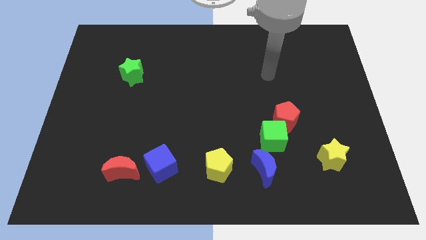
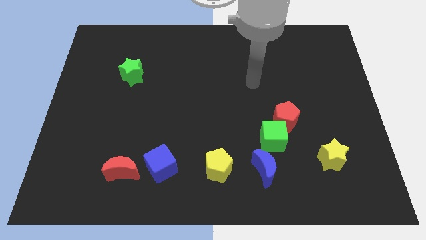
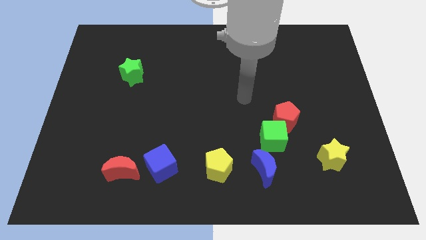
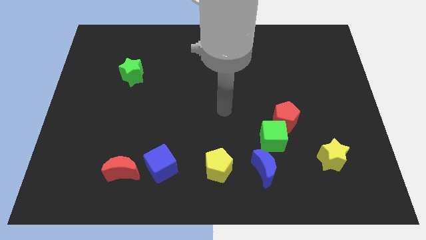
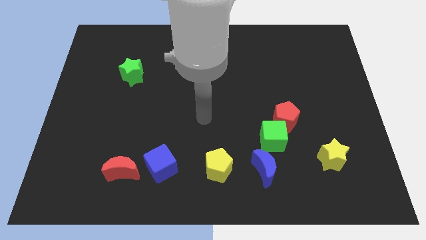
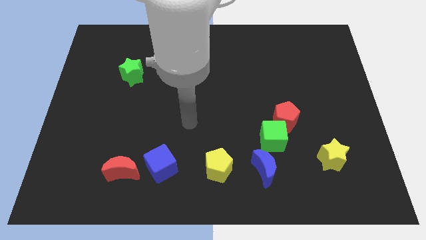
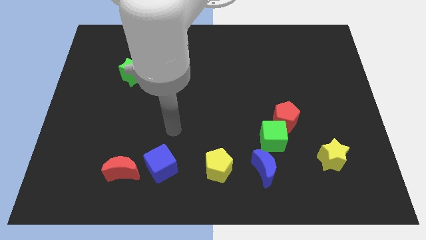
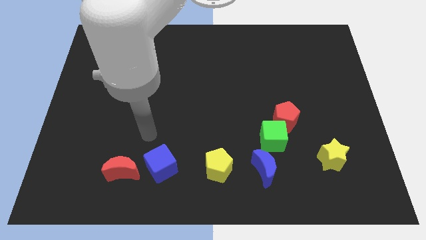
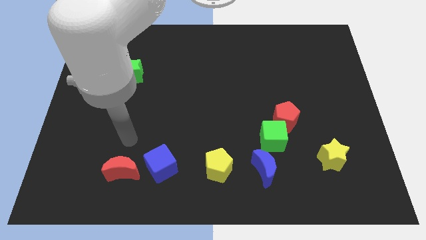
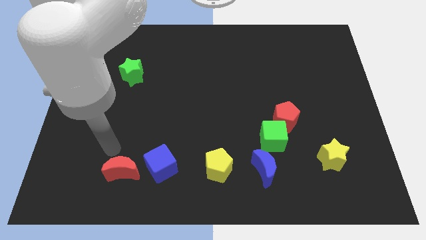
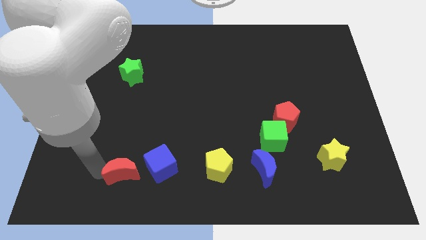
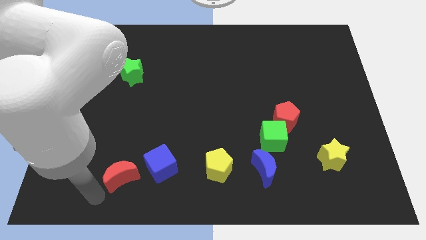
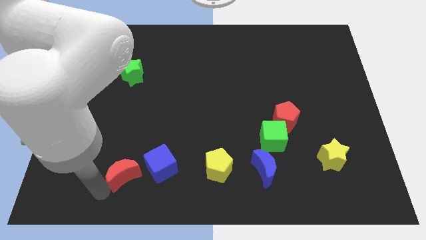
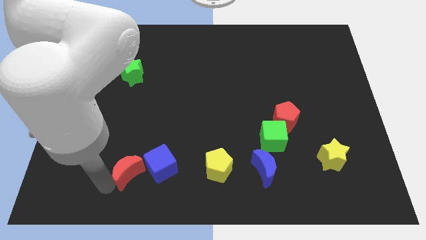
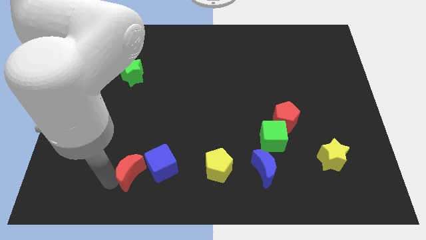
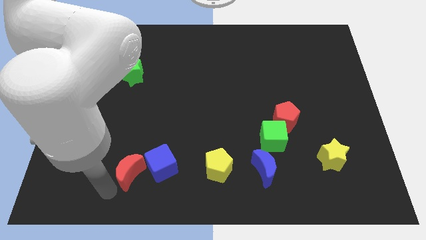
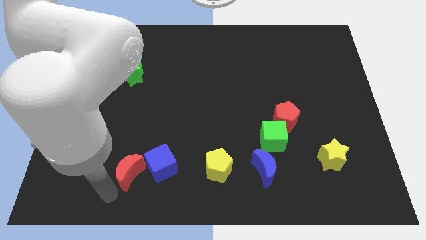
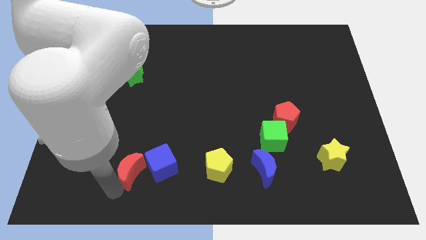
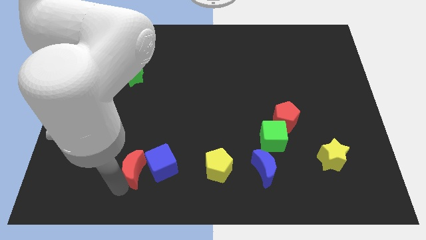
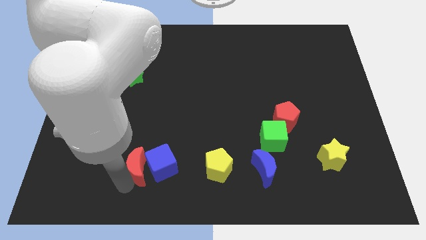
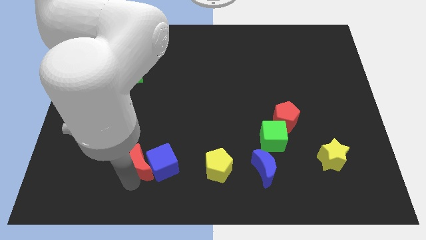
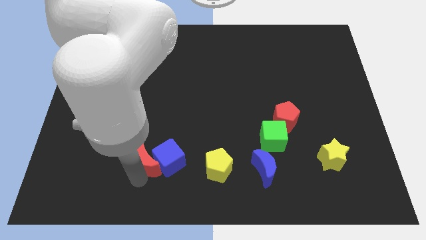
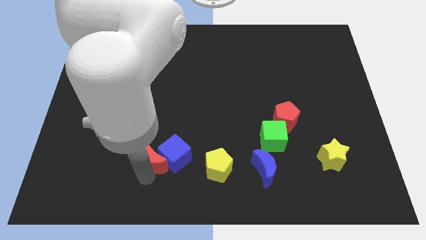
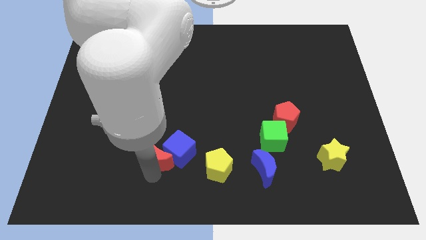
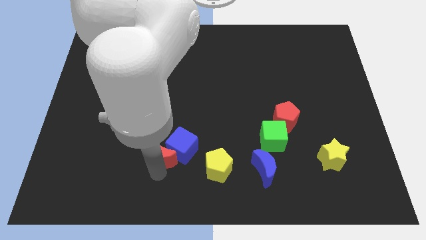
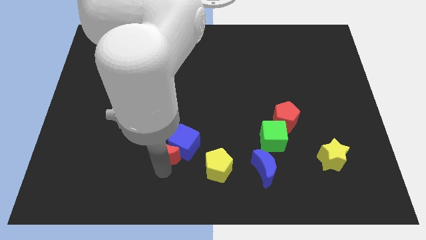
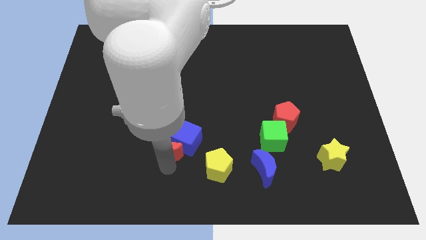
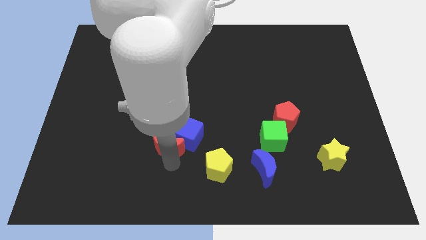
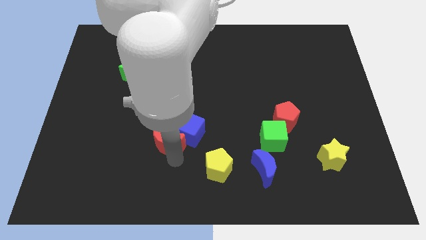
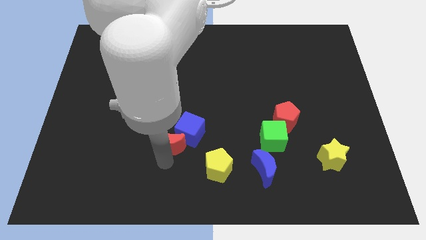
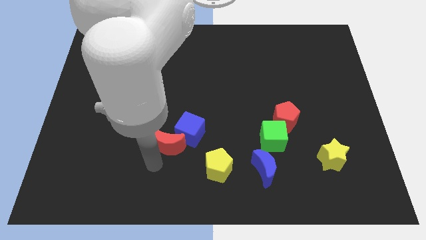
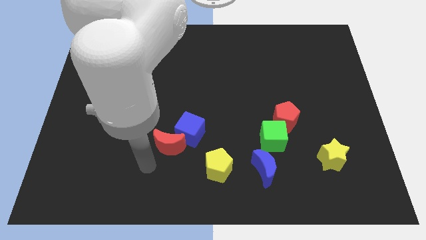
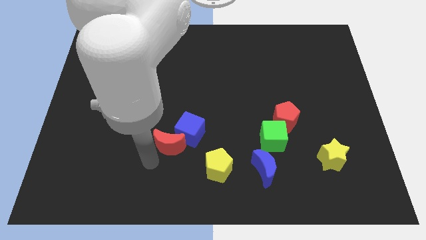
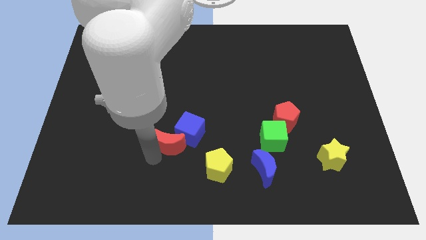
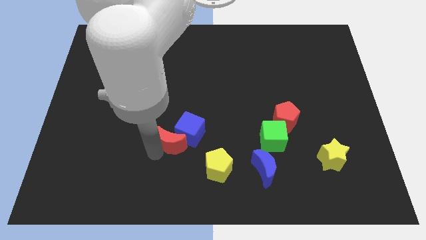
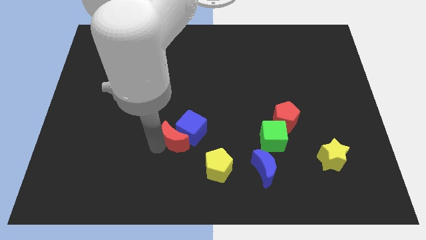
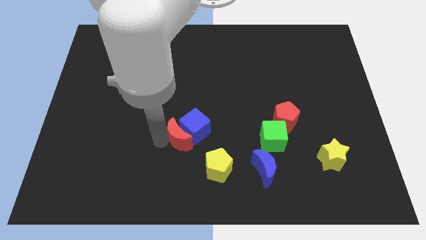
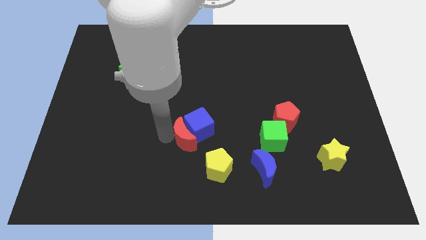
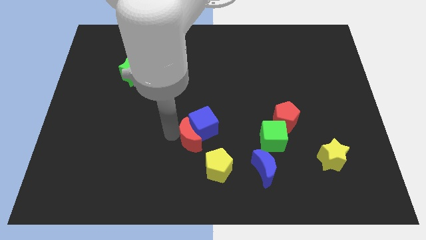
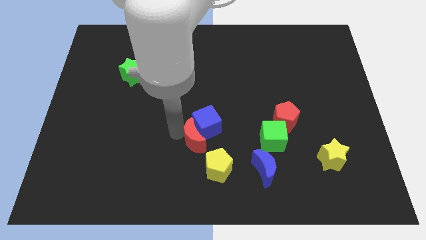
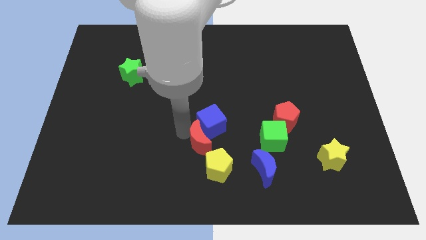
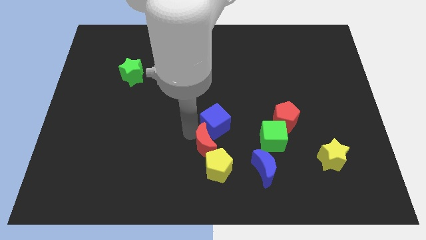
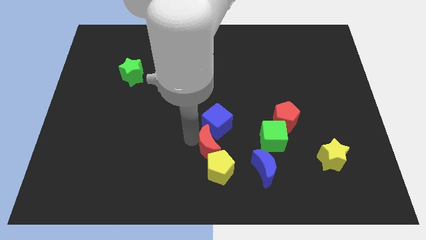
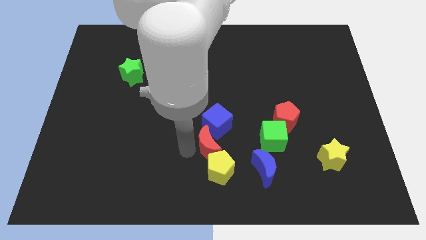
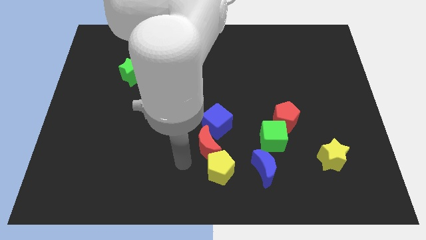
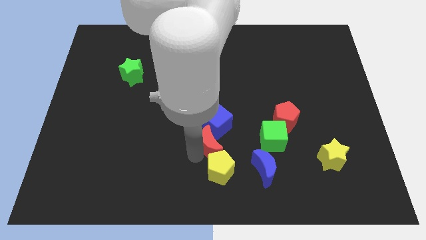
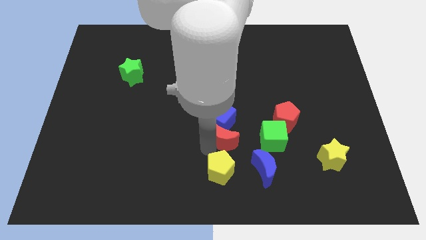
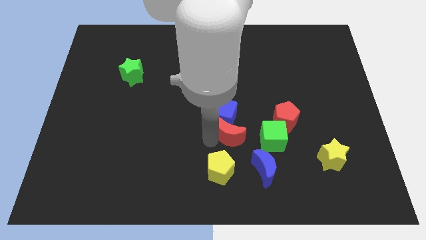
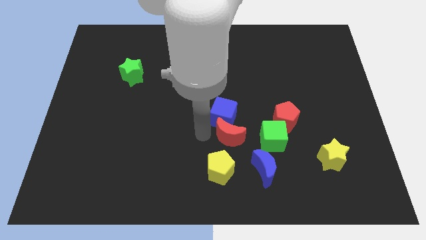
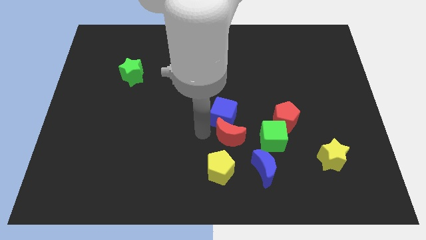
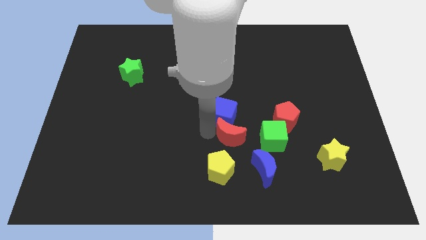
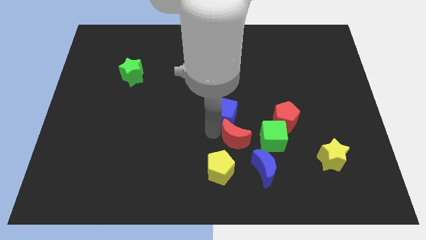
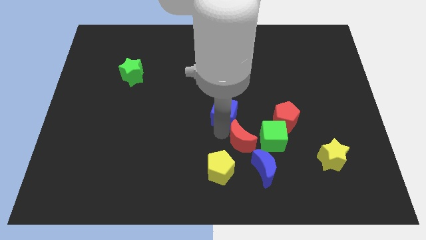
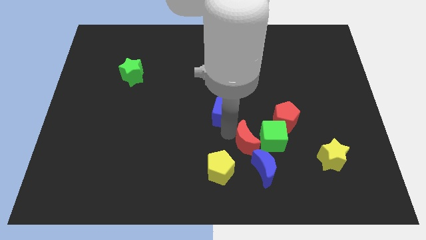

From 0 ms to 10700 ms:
push the red moon to the green cube

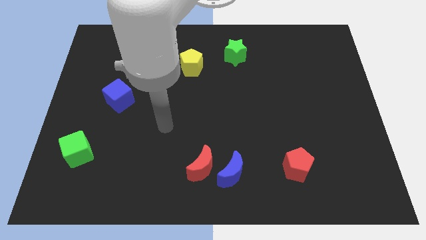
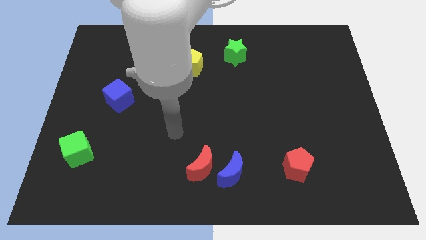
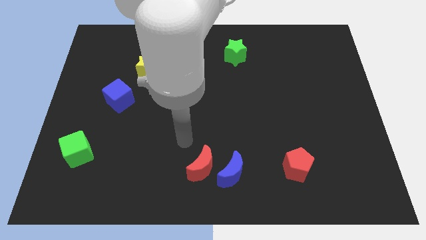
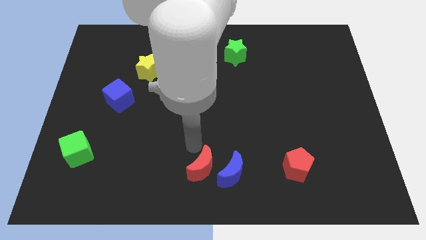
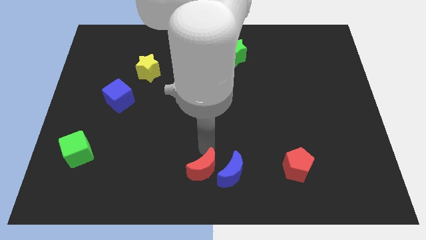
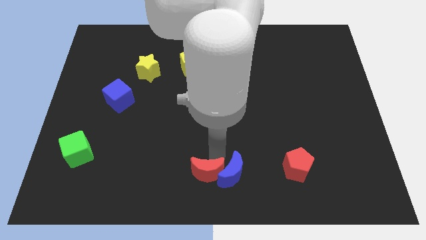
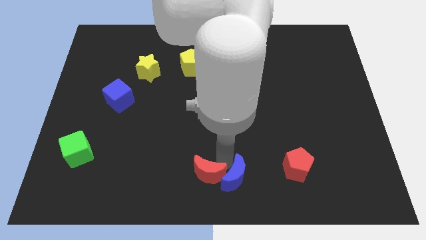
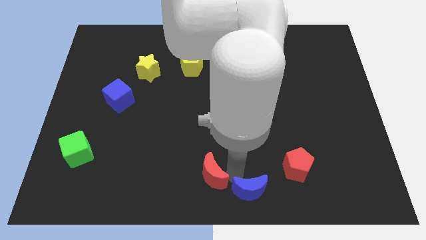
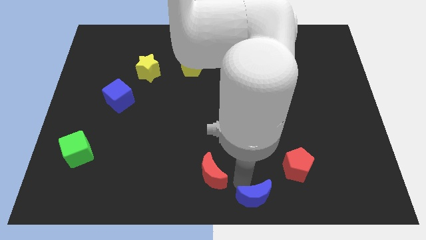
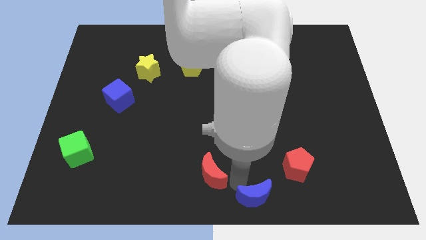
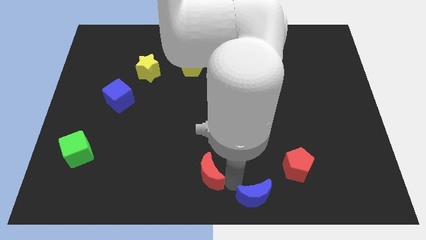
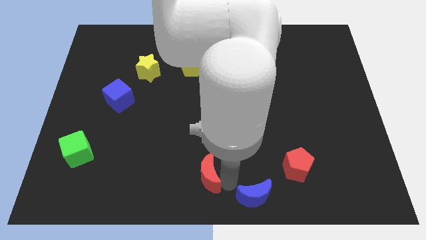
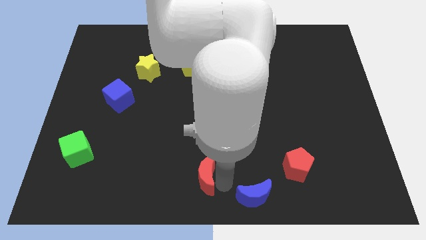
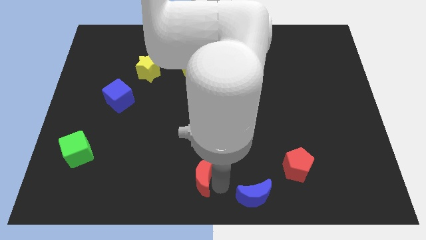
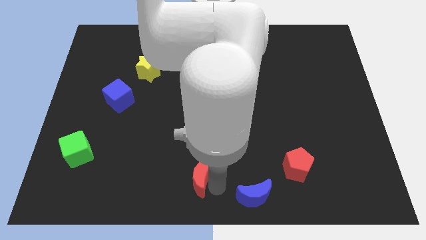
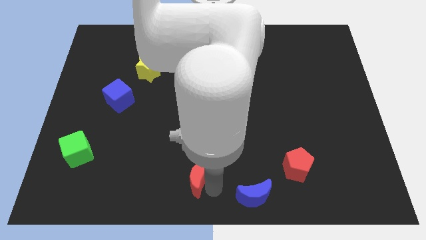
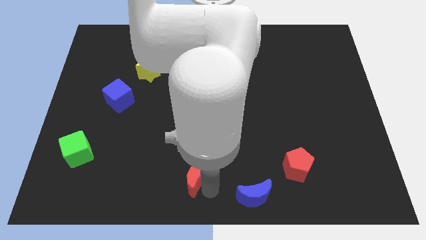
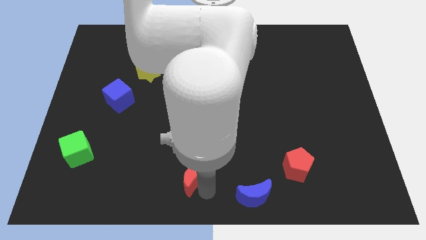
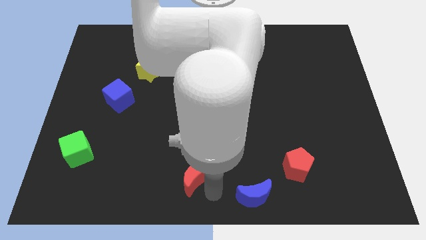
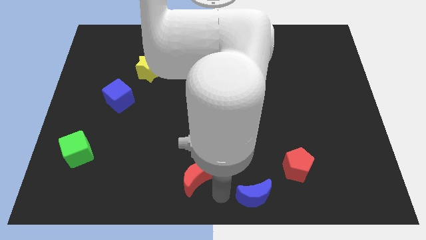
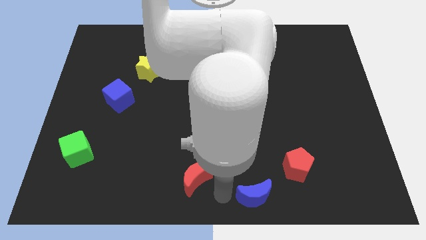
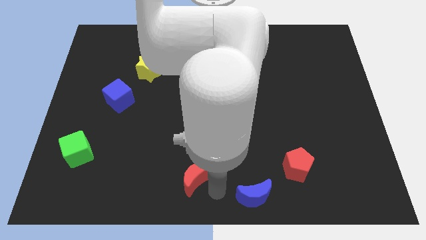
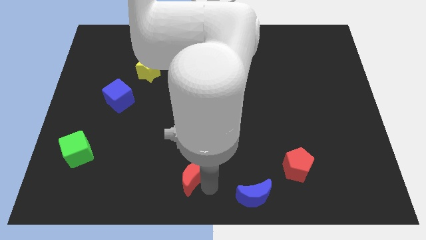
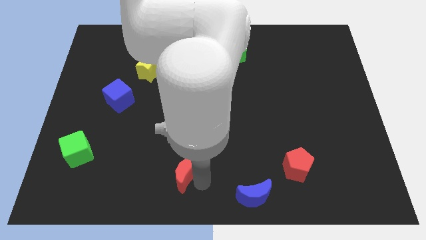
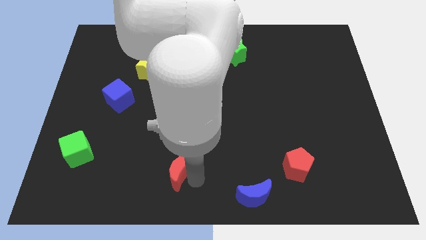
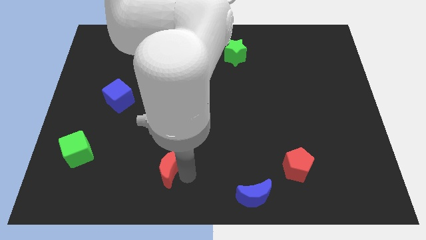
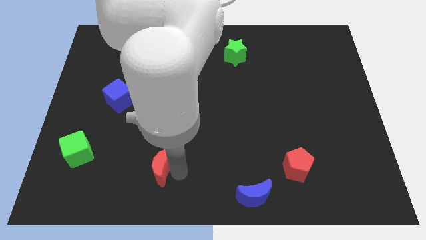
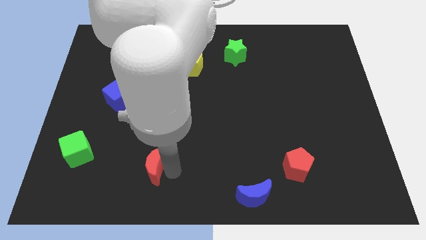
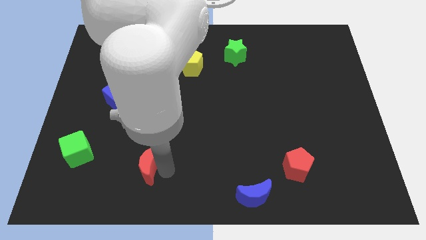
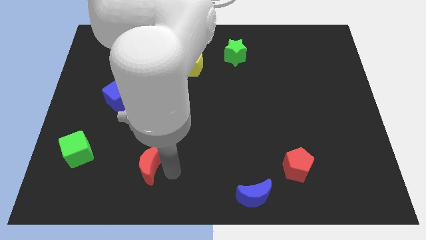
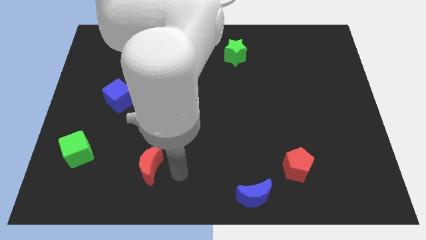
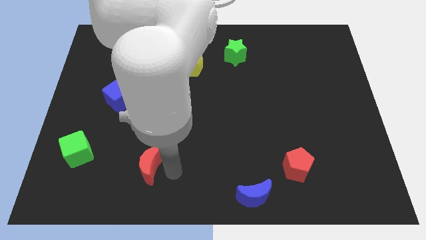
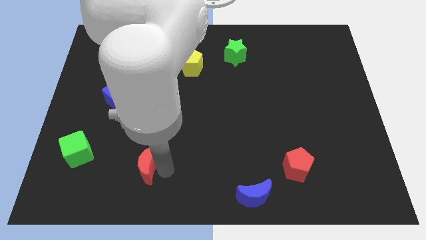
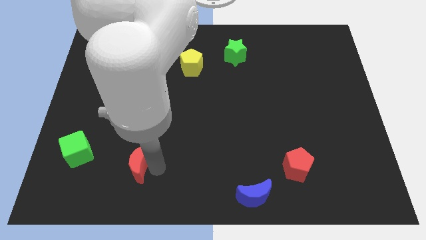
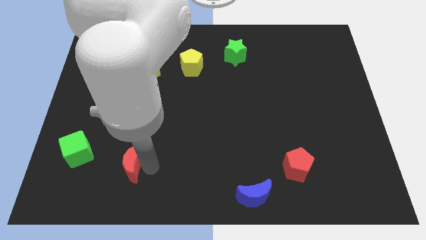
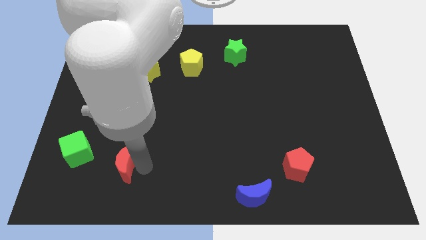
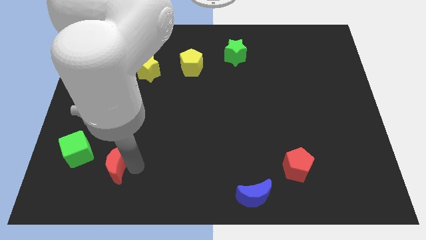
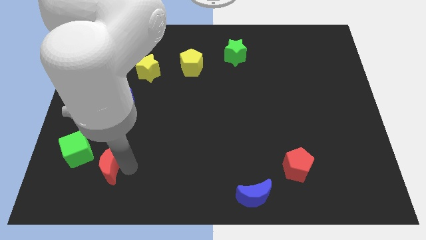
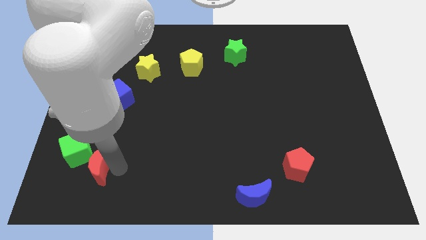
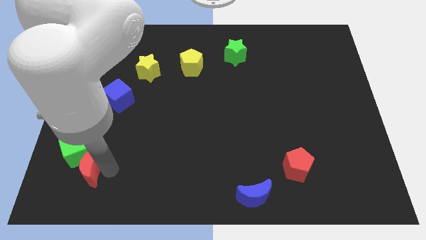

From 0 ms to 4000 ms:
slide the red moon close to the green cube
